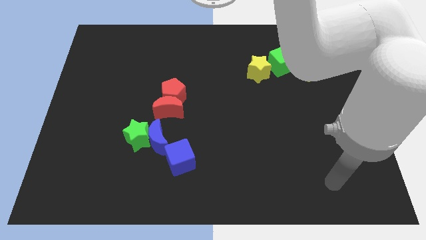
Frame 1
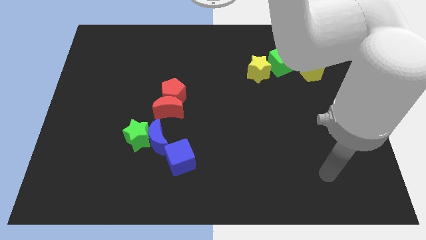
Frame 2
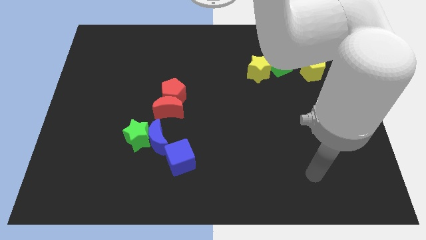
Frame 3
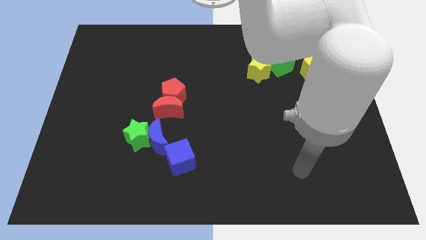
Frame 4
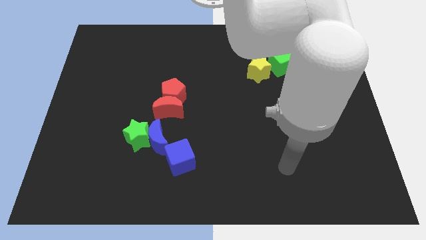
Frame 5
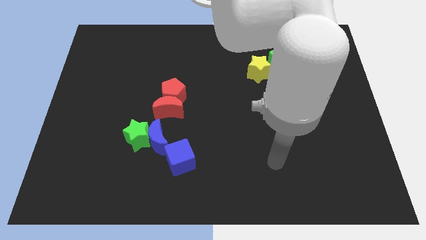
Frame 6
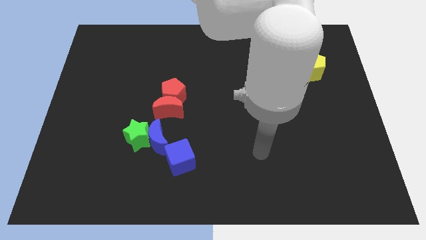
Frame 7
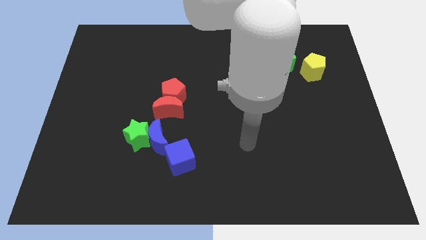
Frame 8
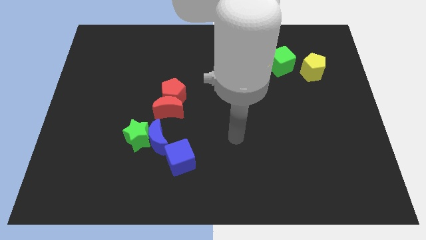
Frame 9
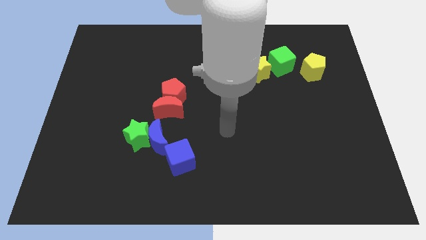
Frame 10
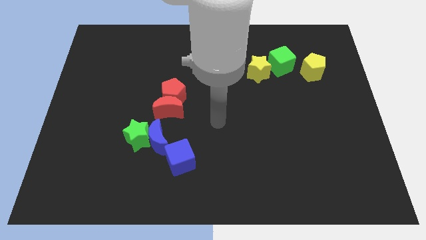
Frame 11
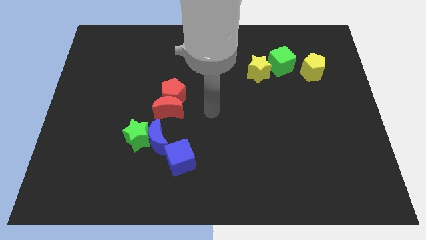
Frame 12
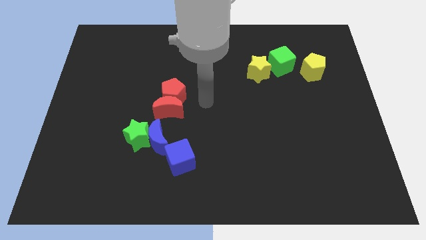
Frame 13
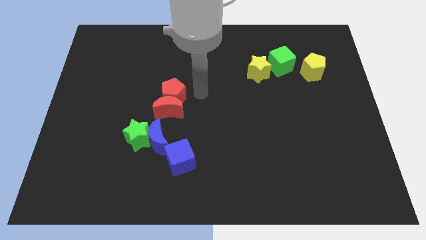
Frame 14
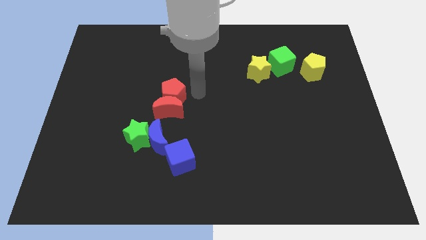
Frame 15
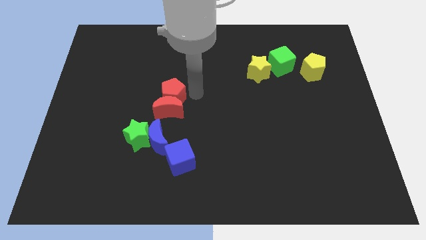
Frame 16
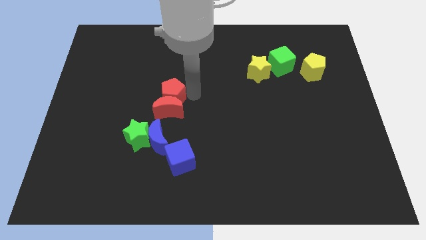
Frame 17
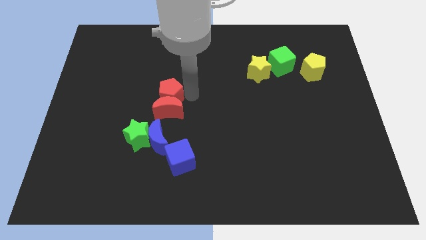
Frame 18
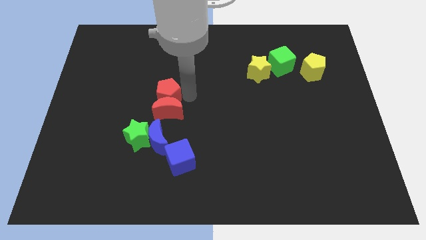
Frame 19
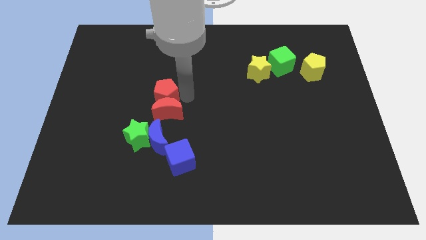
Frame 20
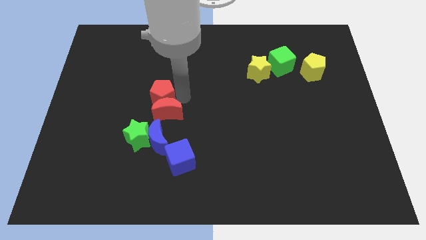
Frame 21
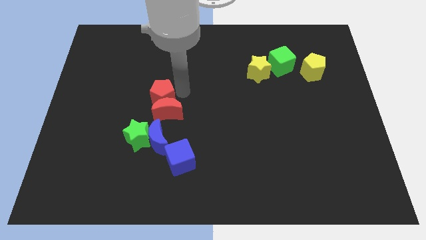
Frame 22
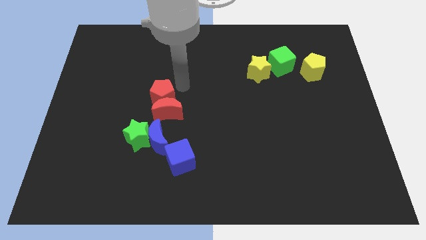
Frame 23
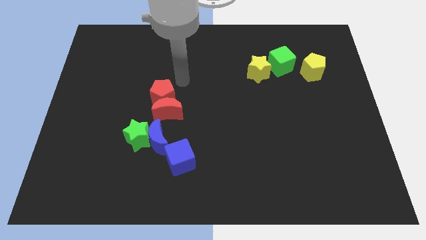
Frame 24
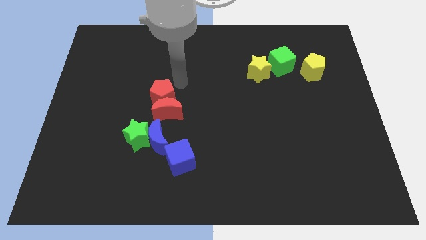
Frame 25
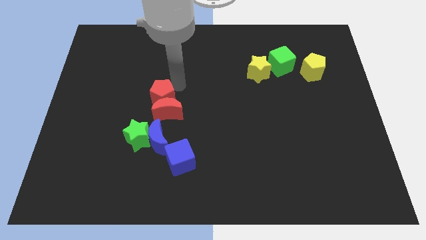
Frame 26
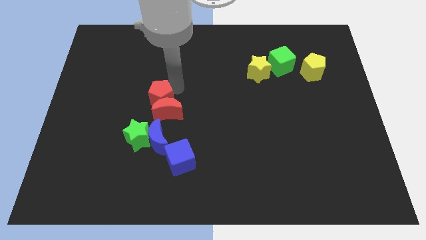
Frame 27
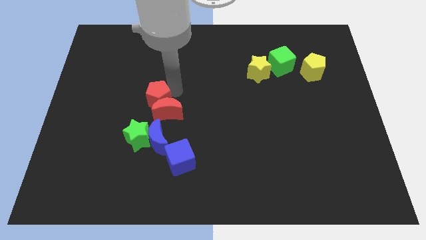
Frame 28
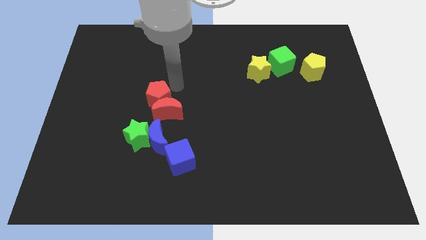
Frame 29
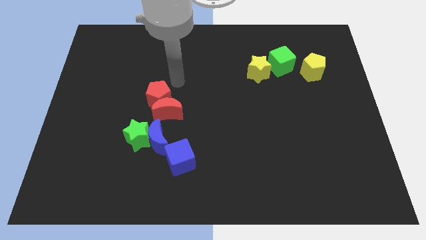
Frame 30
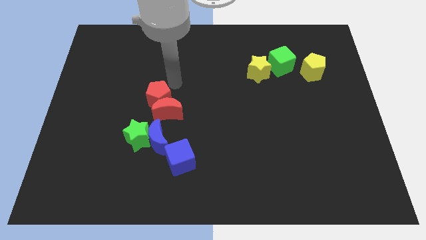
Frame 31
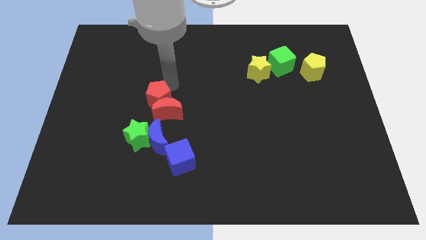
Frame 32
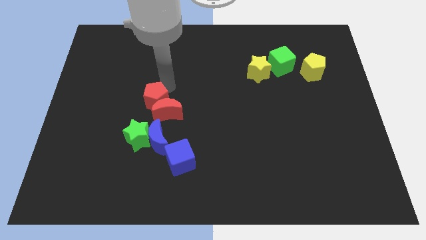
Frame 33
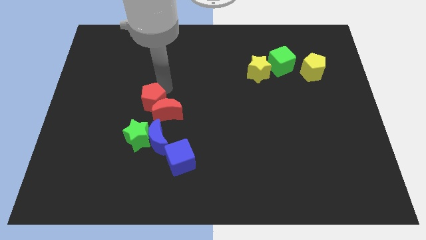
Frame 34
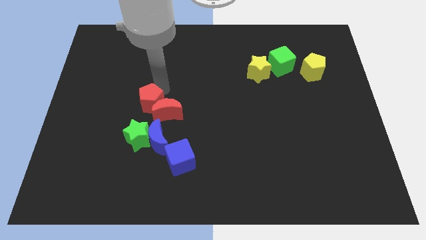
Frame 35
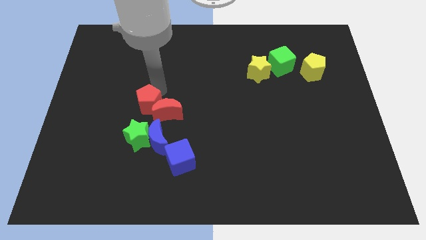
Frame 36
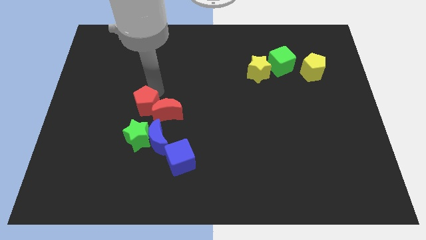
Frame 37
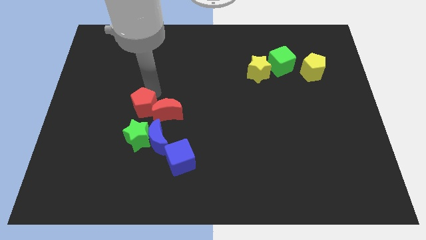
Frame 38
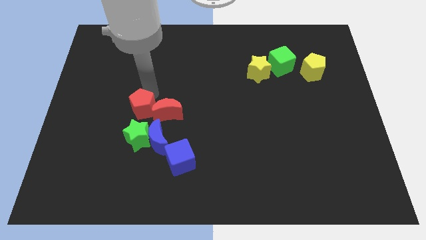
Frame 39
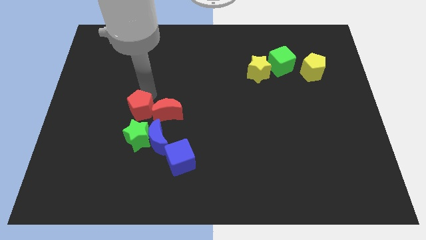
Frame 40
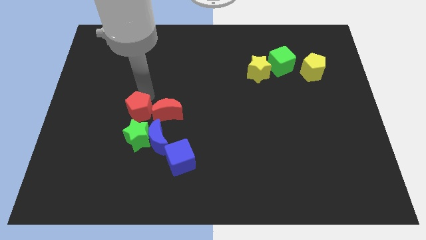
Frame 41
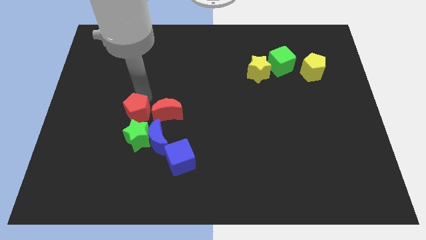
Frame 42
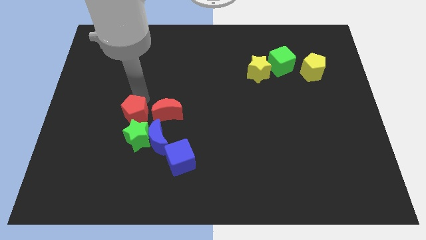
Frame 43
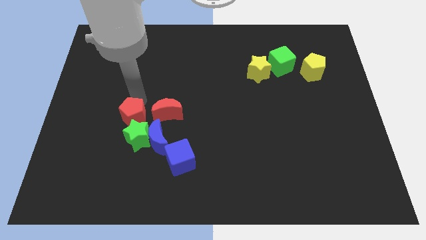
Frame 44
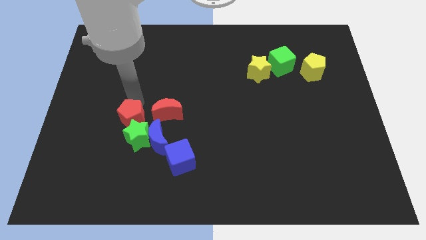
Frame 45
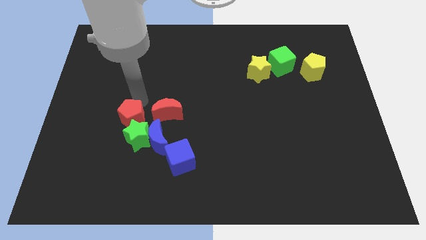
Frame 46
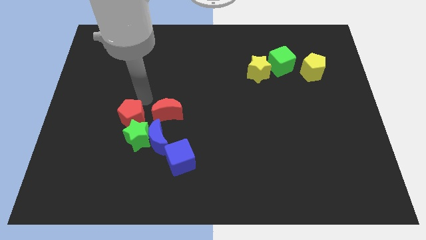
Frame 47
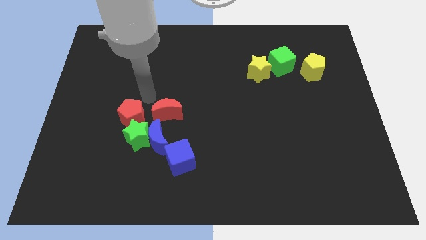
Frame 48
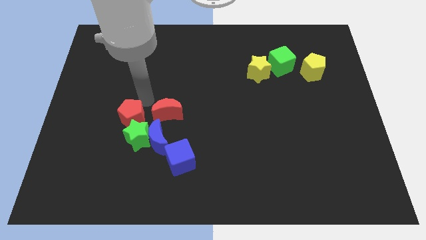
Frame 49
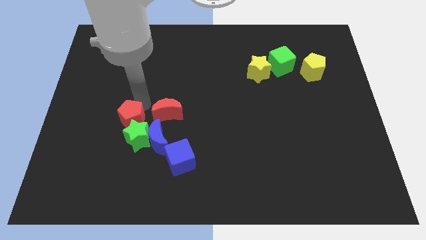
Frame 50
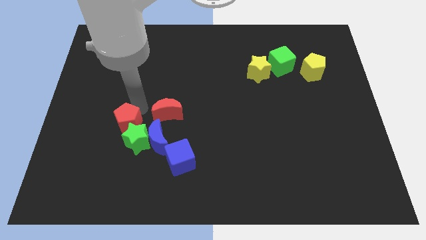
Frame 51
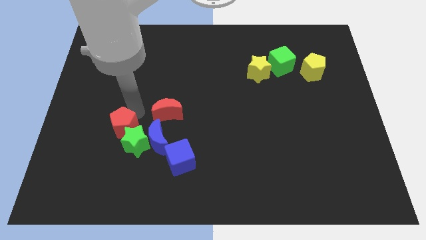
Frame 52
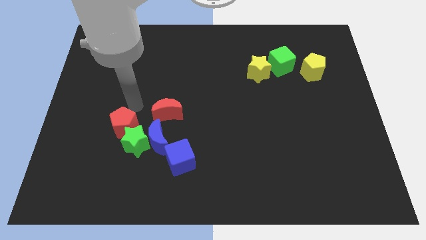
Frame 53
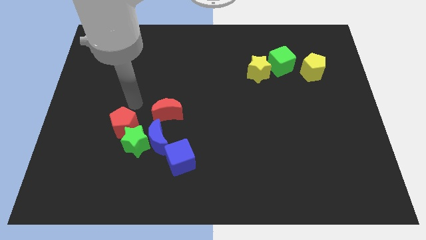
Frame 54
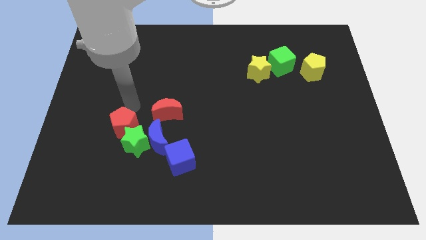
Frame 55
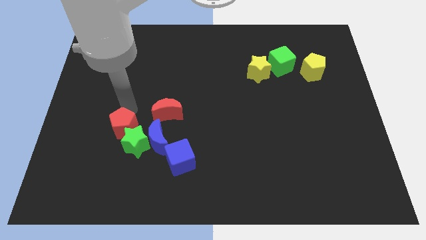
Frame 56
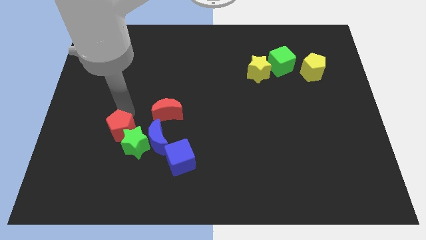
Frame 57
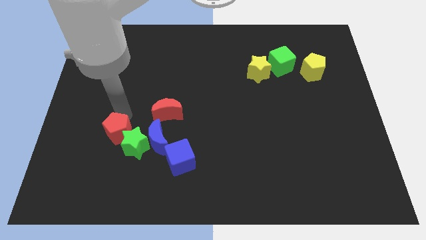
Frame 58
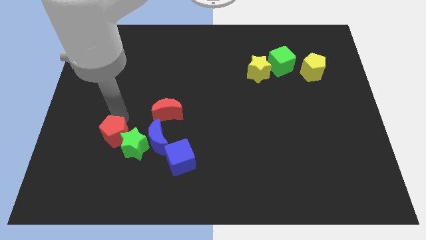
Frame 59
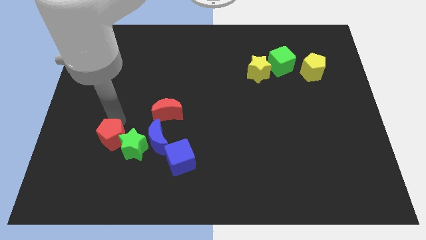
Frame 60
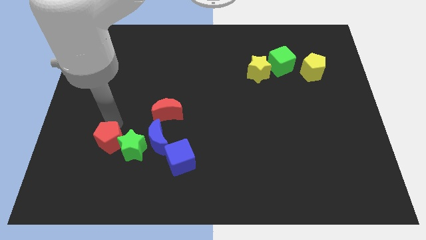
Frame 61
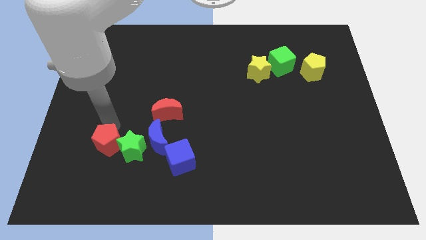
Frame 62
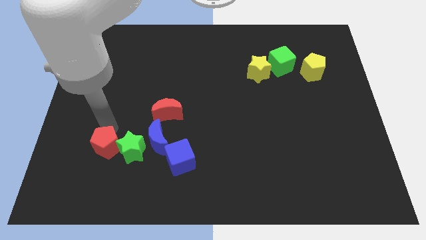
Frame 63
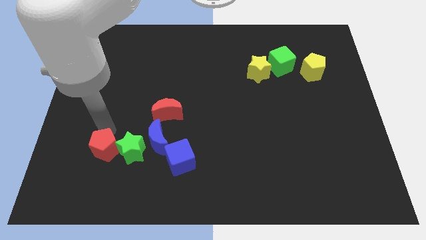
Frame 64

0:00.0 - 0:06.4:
push the red pentagon to the bottom left of the green star

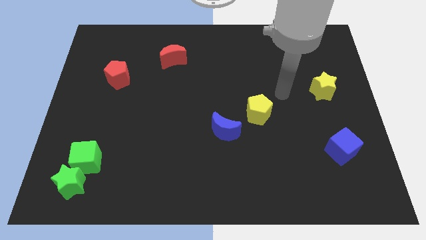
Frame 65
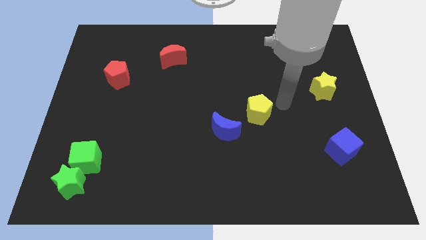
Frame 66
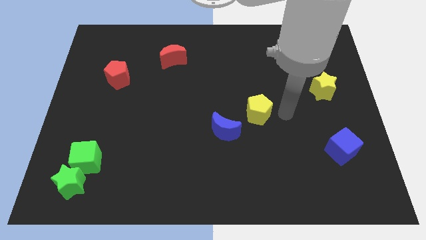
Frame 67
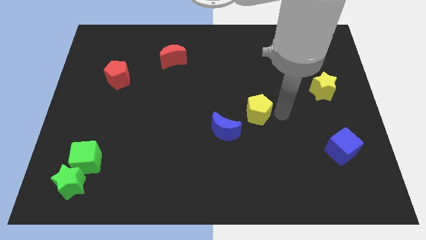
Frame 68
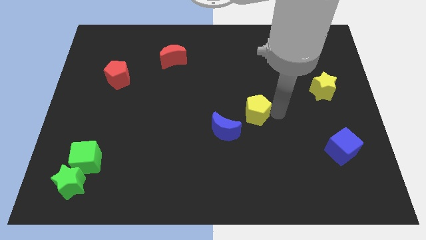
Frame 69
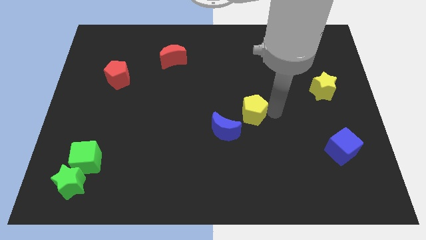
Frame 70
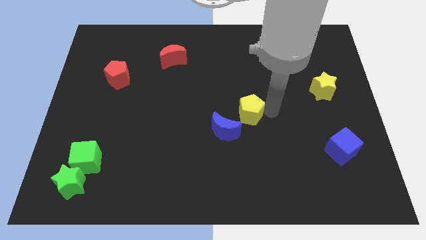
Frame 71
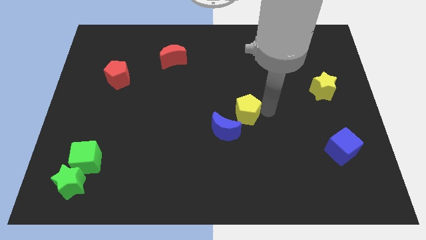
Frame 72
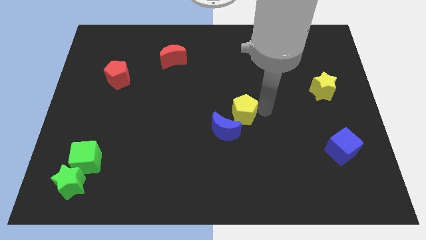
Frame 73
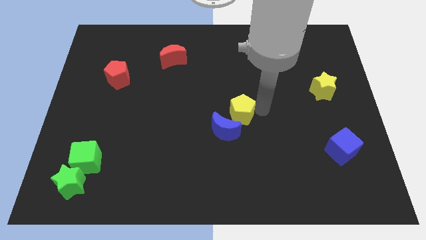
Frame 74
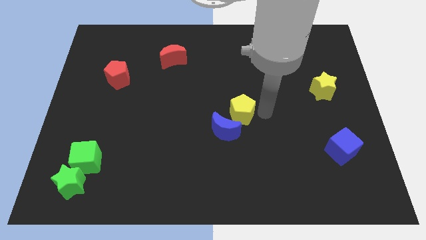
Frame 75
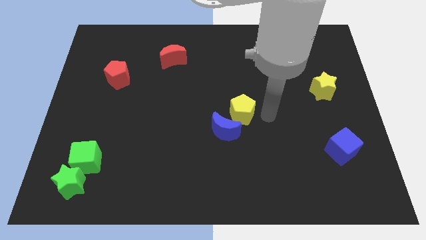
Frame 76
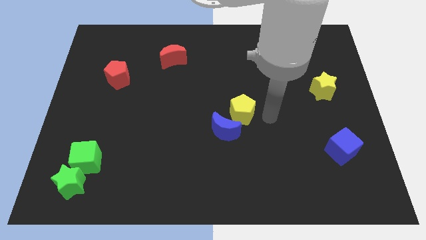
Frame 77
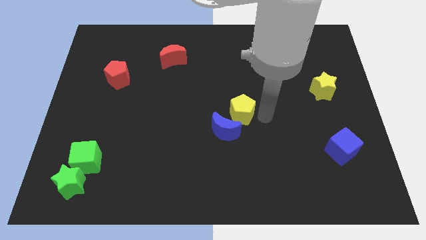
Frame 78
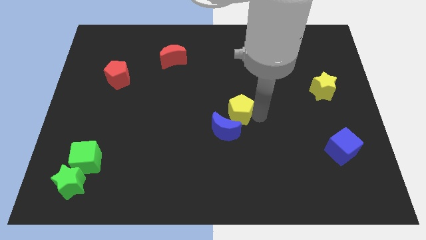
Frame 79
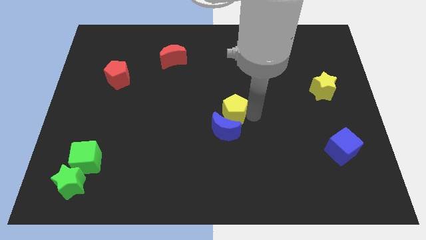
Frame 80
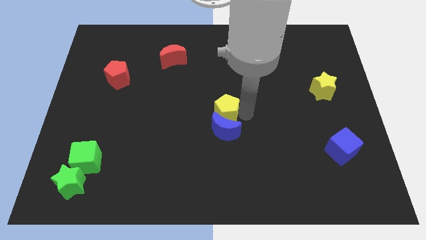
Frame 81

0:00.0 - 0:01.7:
put the yellow pentagon diagonally up and to the left of the blue moon
